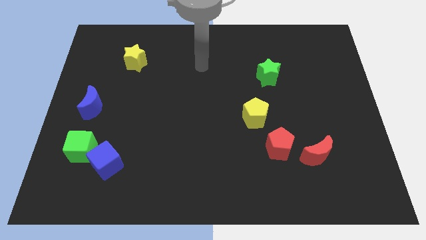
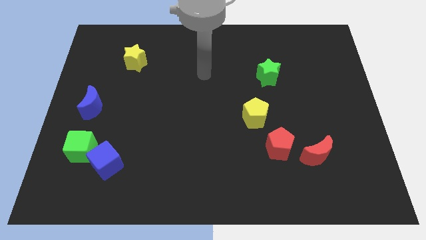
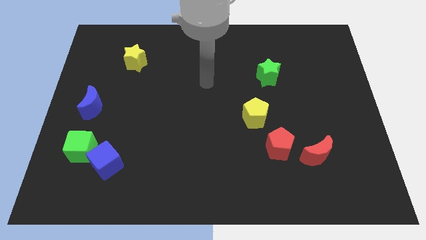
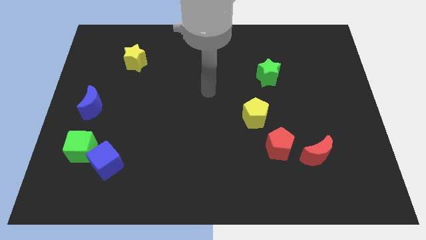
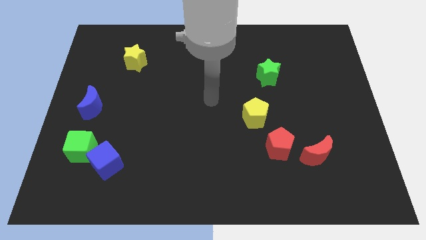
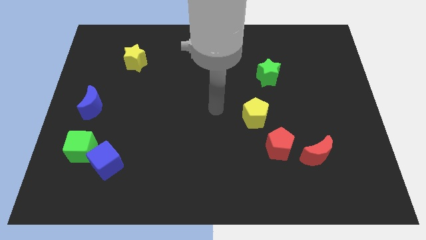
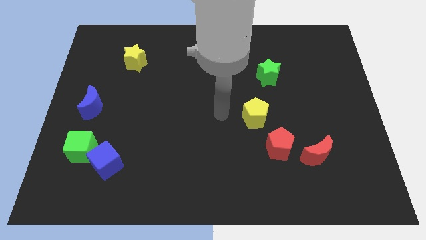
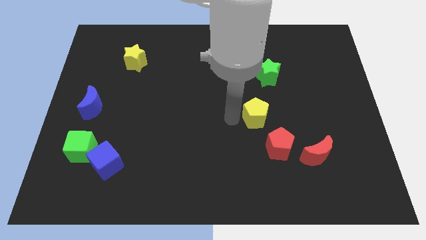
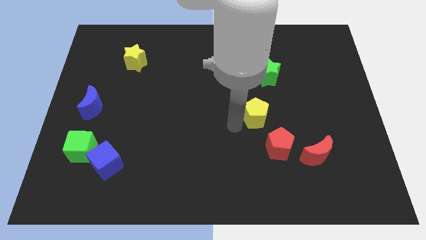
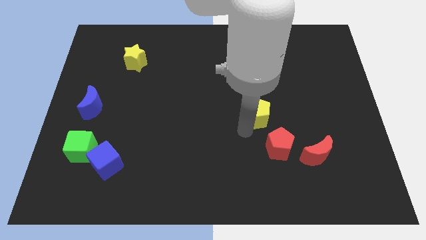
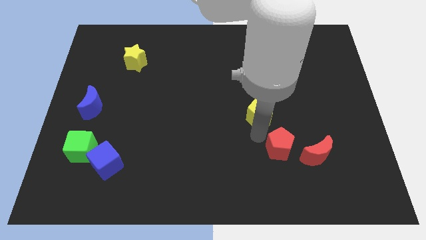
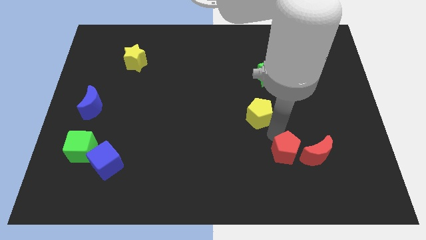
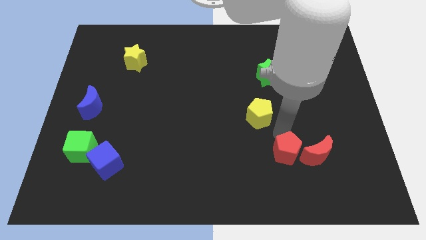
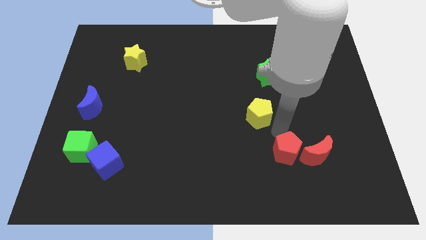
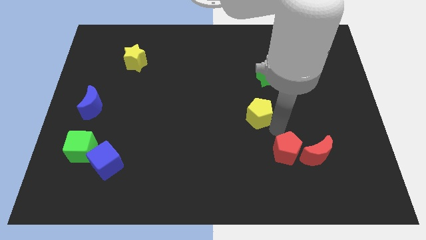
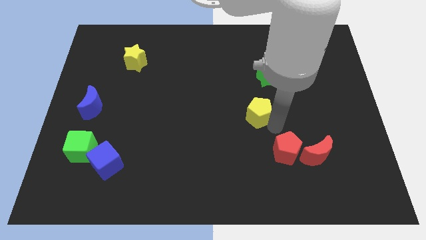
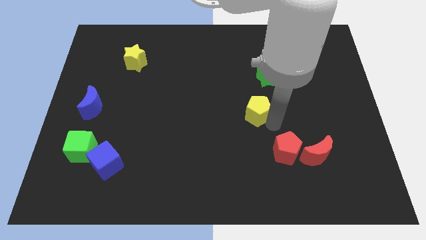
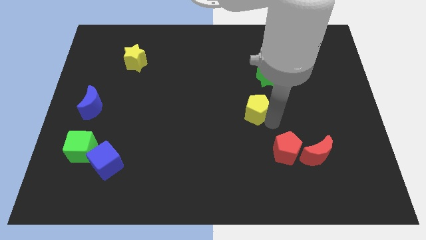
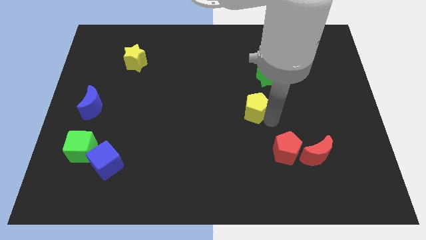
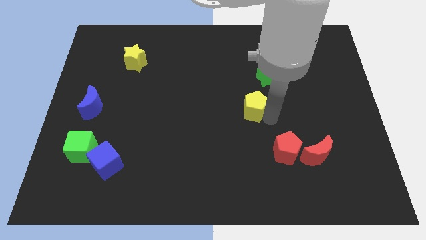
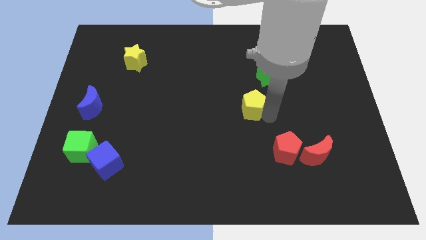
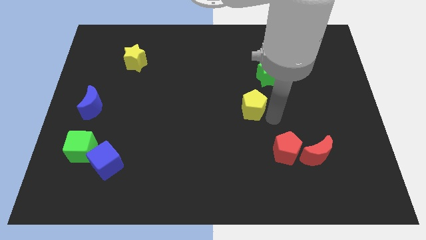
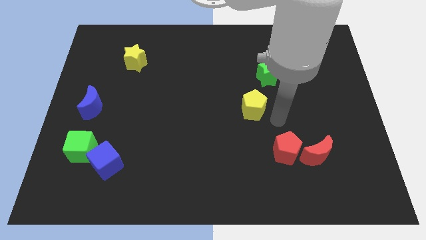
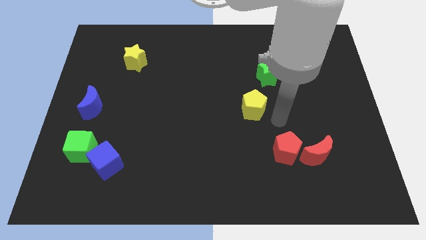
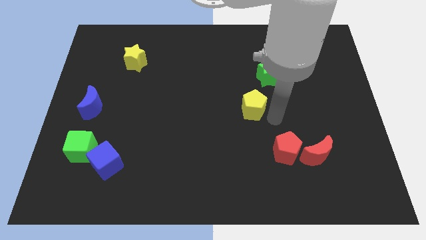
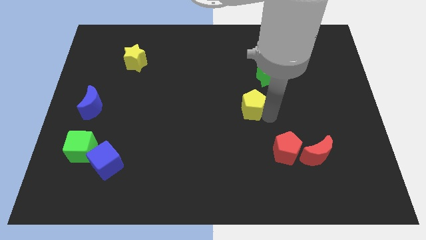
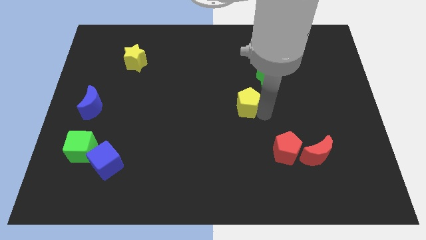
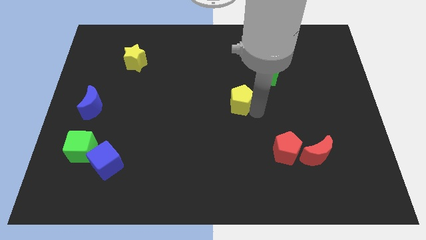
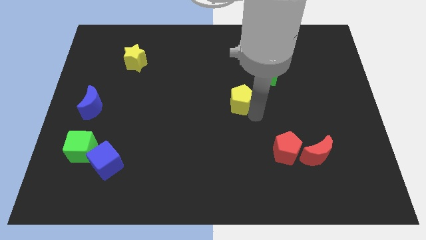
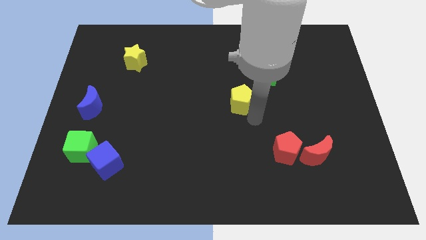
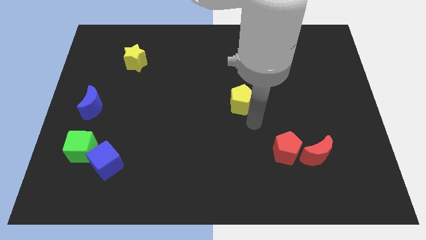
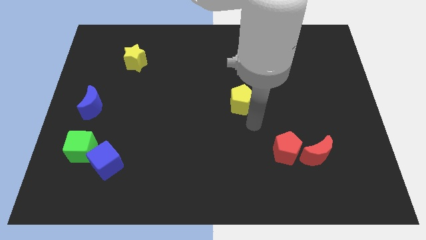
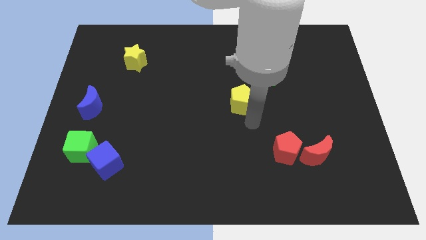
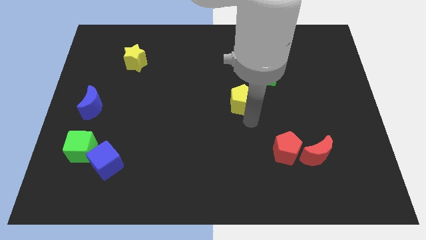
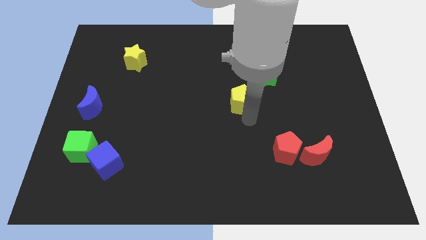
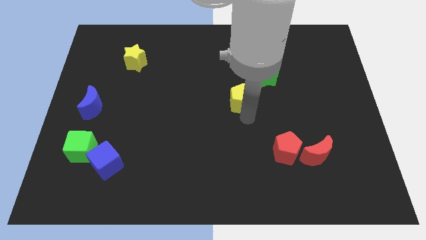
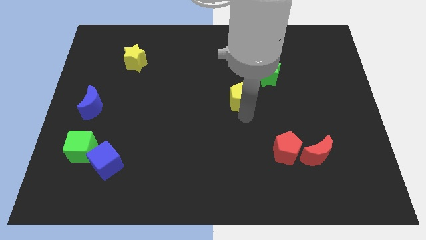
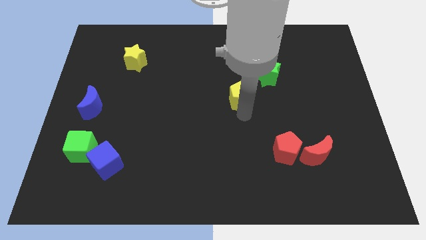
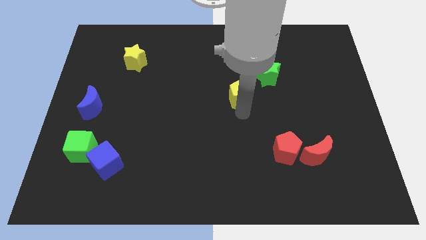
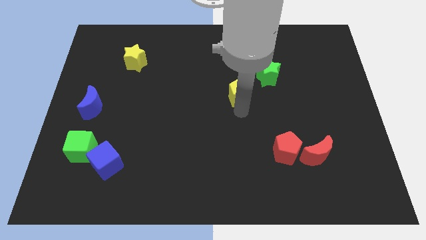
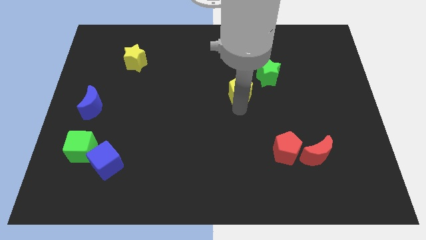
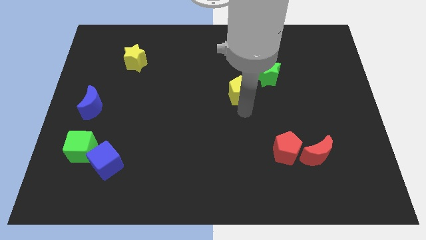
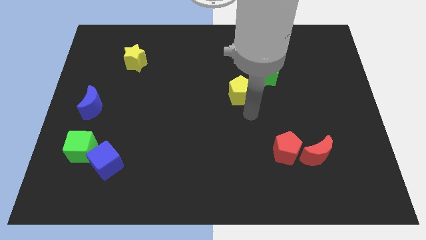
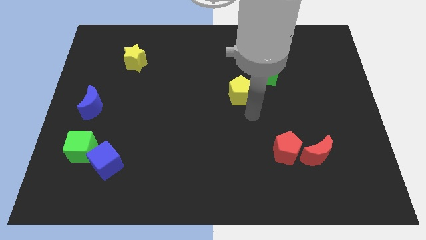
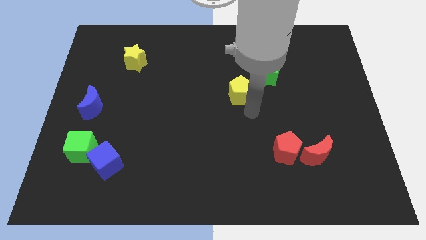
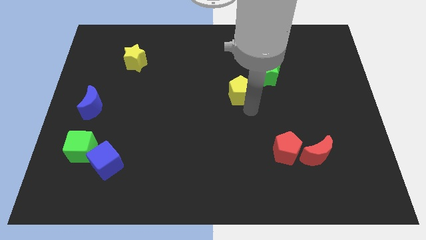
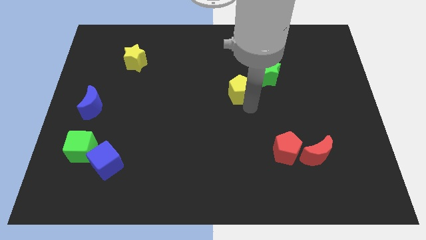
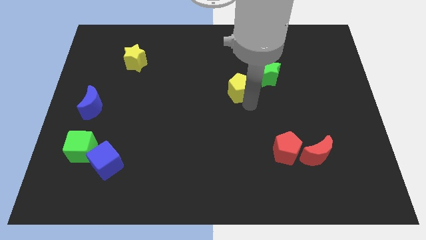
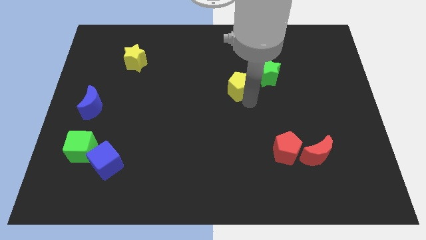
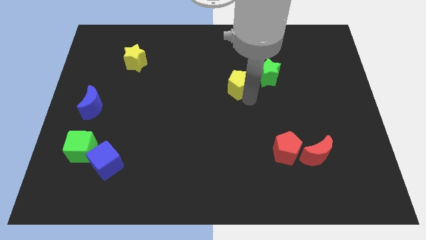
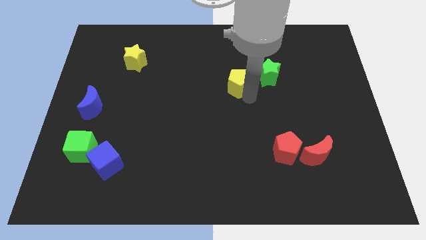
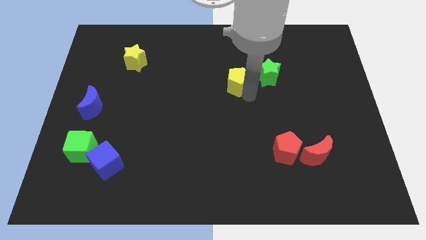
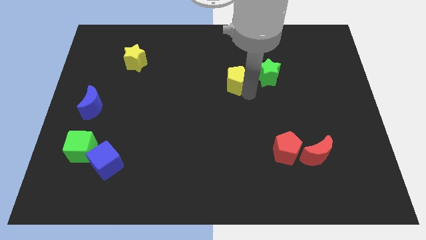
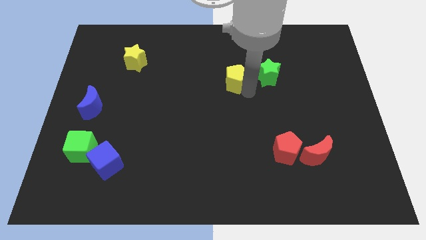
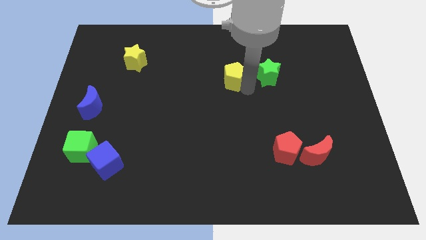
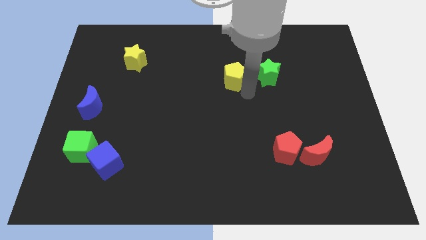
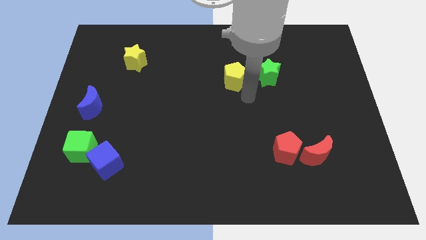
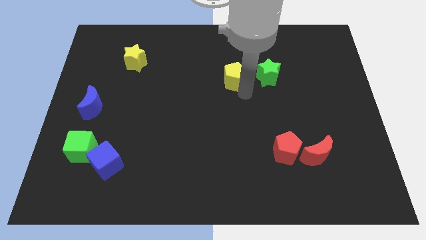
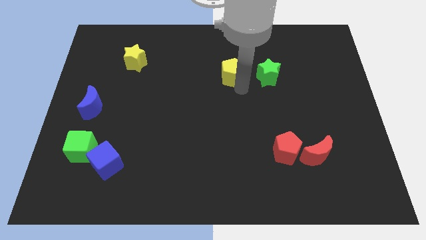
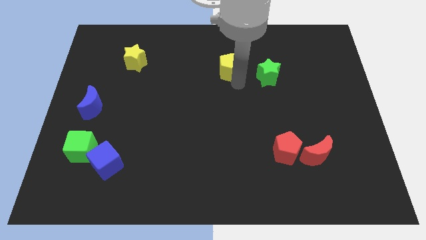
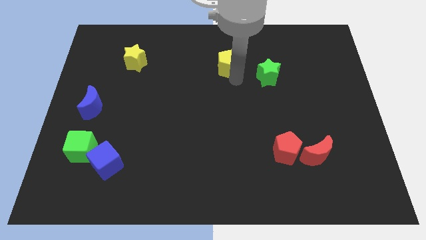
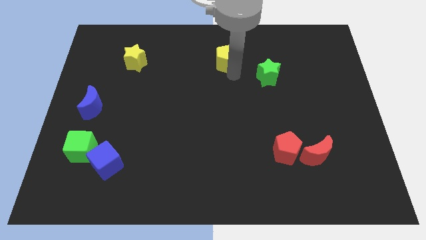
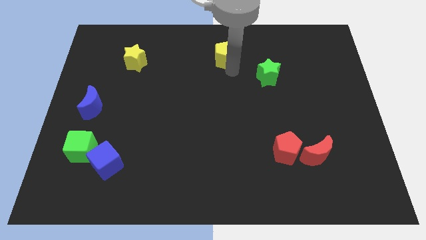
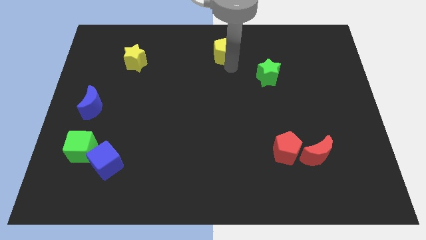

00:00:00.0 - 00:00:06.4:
put the yellow pentagon to the top
